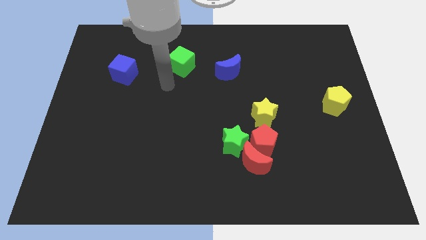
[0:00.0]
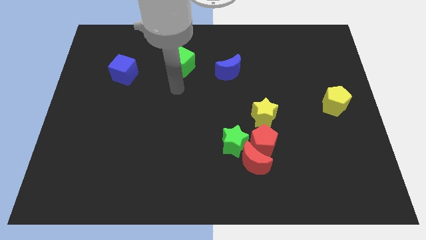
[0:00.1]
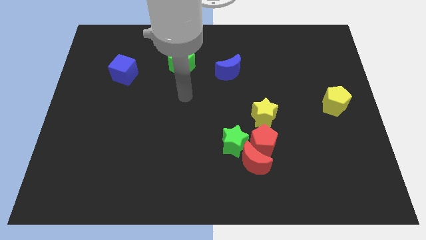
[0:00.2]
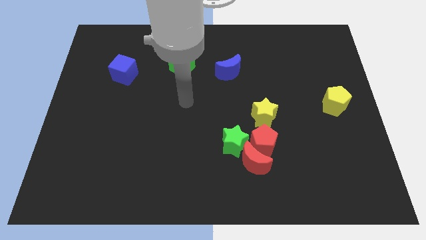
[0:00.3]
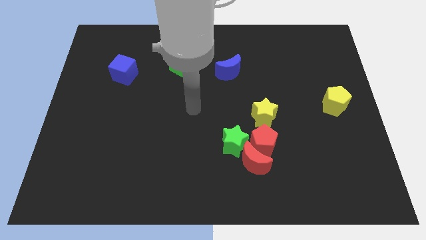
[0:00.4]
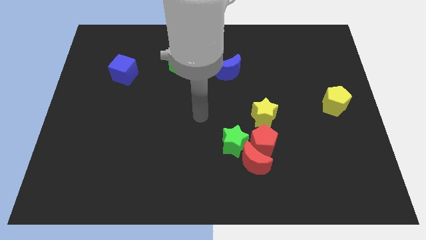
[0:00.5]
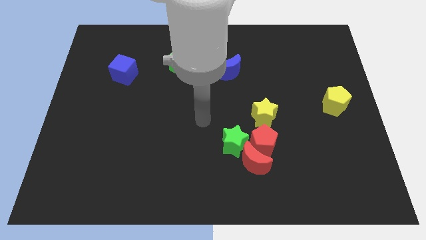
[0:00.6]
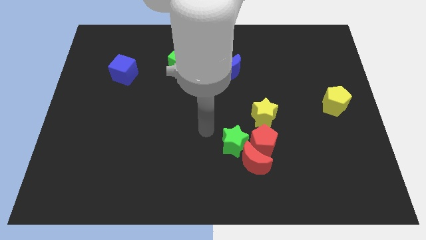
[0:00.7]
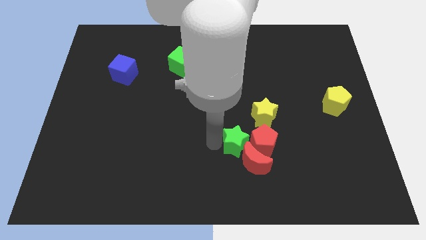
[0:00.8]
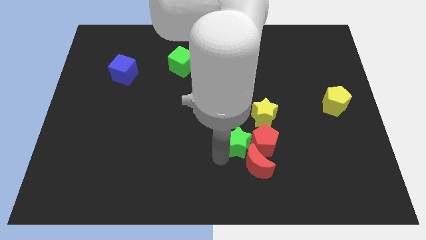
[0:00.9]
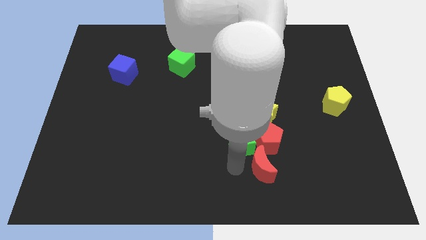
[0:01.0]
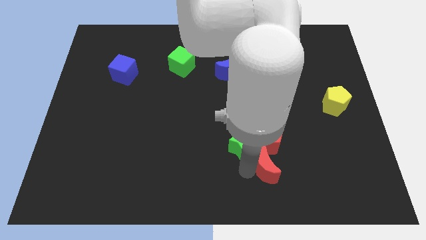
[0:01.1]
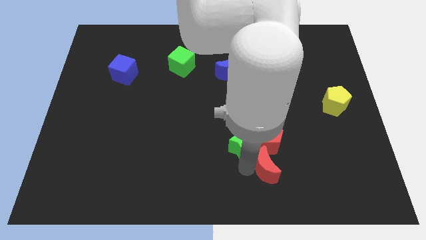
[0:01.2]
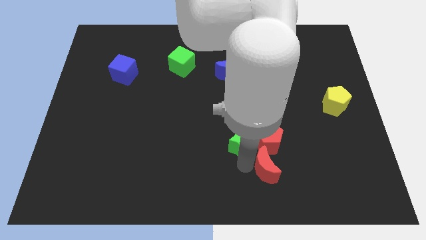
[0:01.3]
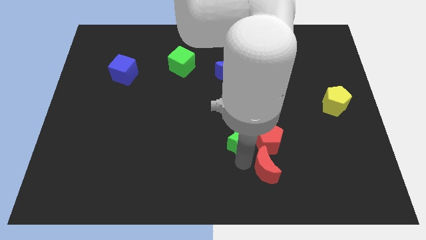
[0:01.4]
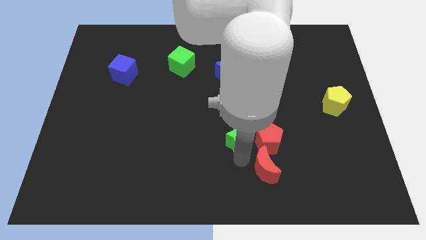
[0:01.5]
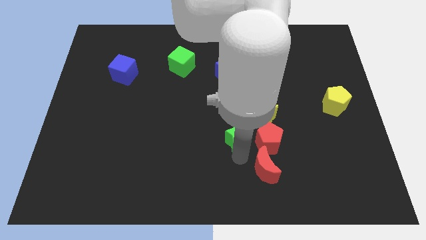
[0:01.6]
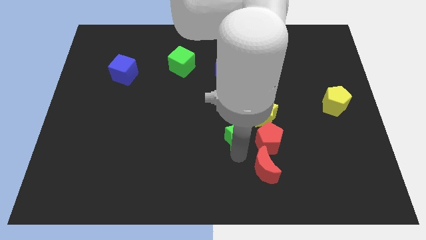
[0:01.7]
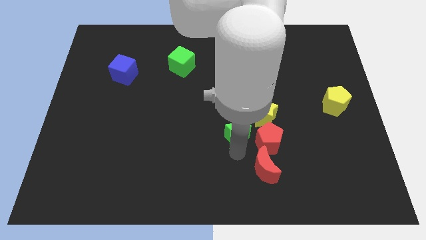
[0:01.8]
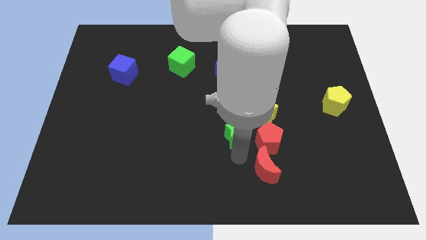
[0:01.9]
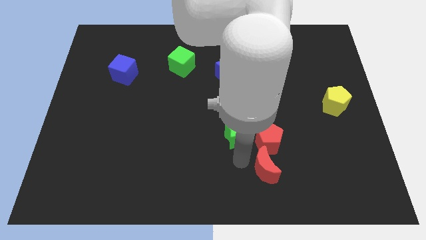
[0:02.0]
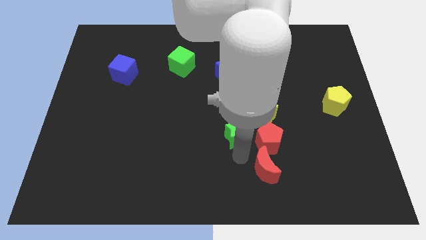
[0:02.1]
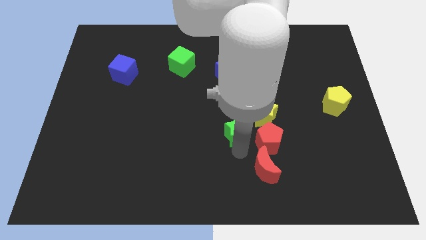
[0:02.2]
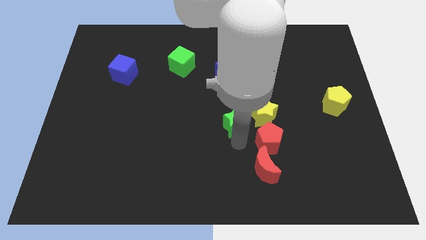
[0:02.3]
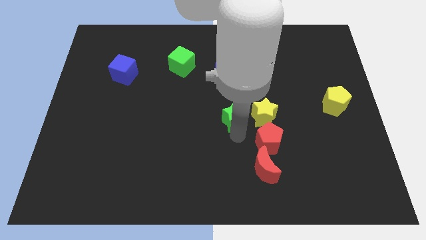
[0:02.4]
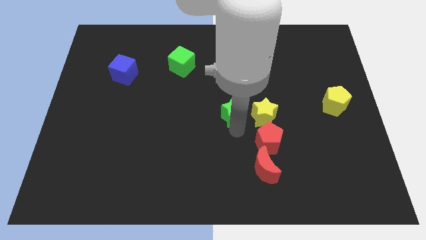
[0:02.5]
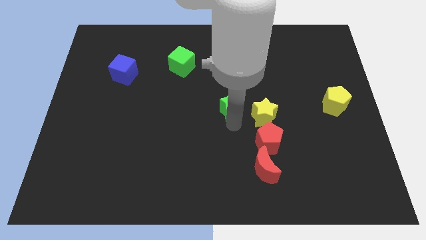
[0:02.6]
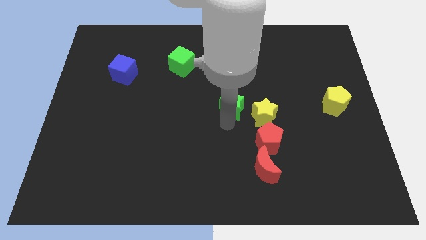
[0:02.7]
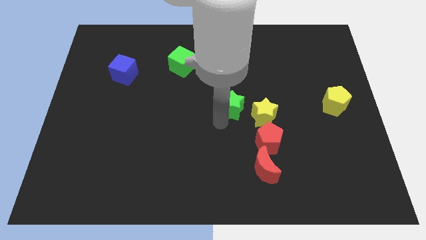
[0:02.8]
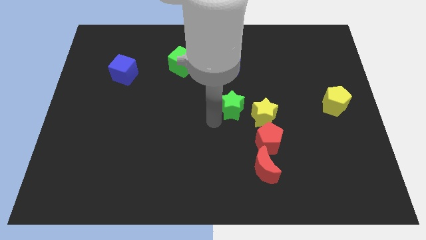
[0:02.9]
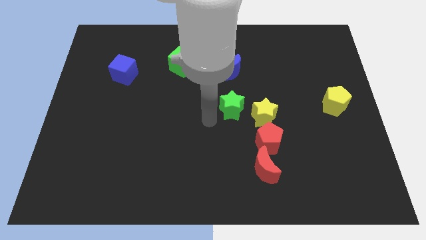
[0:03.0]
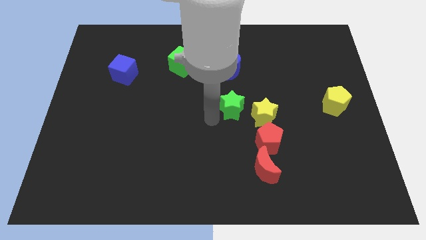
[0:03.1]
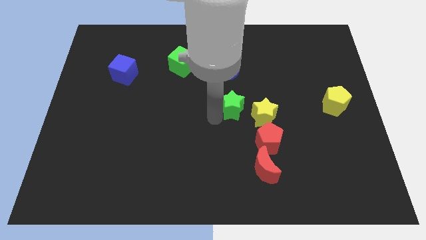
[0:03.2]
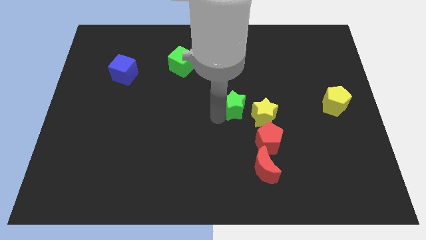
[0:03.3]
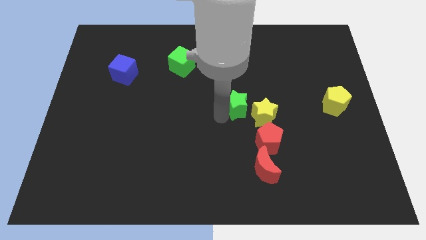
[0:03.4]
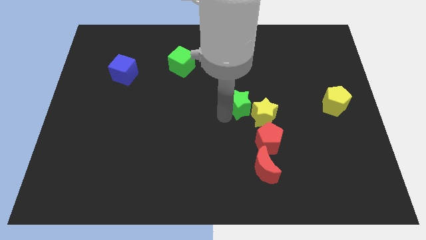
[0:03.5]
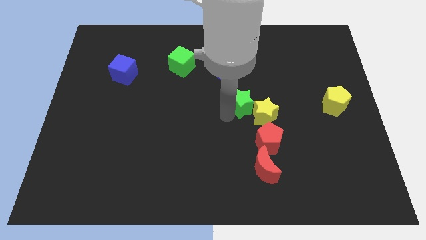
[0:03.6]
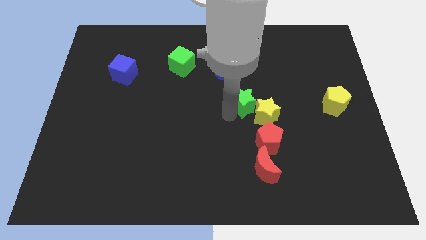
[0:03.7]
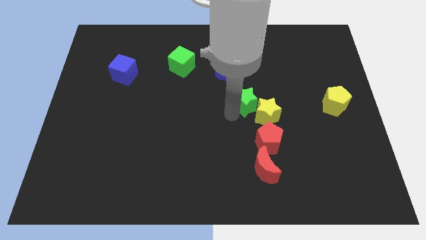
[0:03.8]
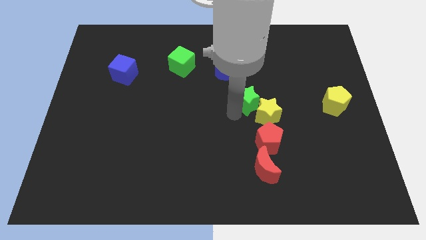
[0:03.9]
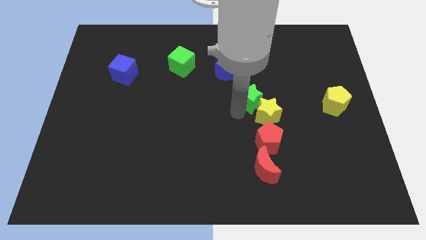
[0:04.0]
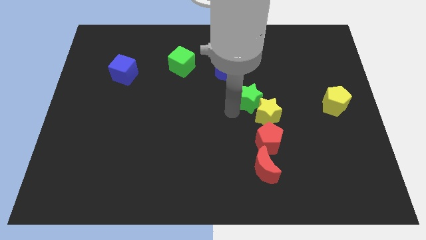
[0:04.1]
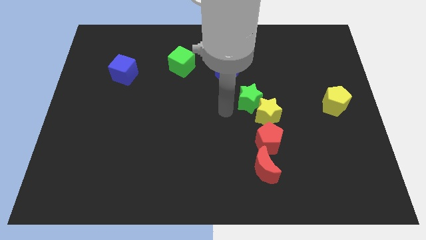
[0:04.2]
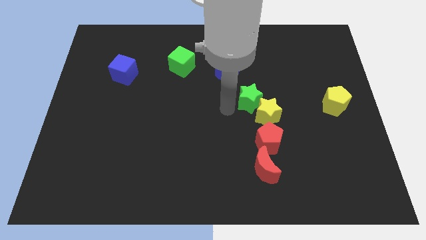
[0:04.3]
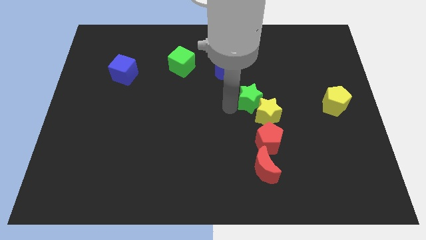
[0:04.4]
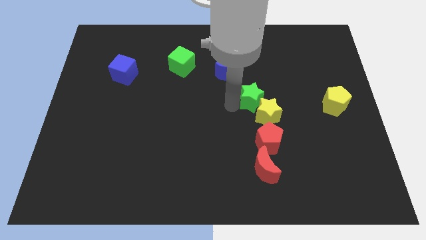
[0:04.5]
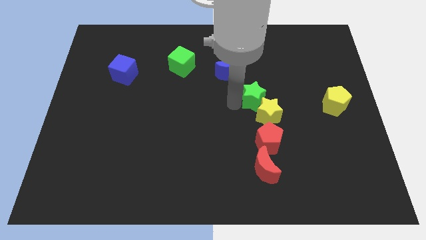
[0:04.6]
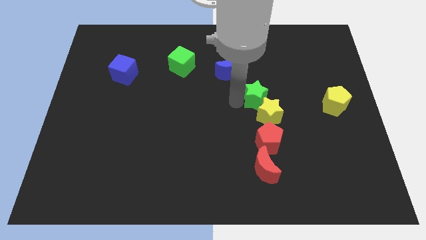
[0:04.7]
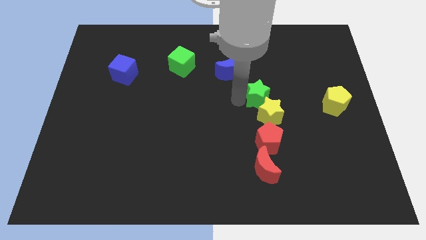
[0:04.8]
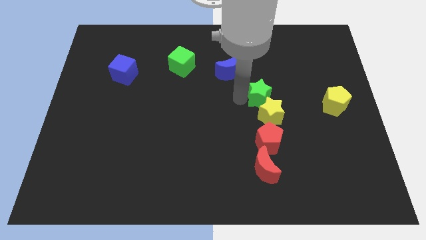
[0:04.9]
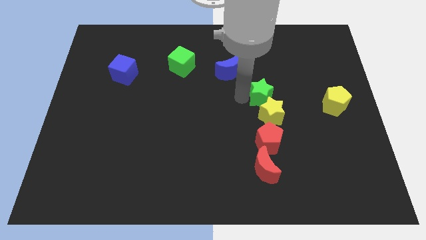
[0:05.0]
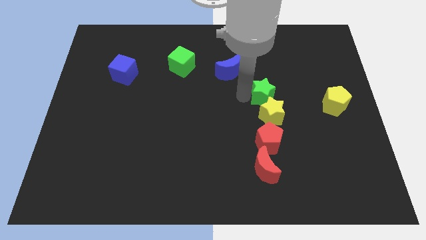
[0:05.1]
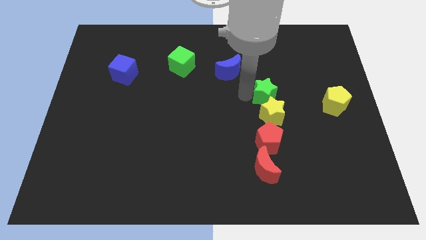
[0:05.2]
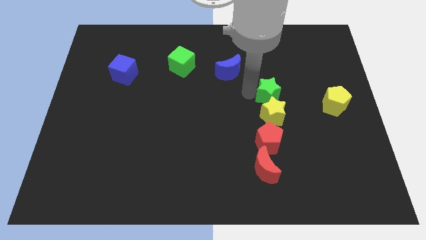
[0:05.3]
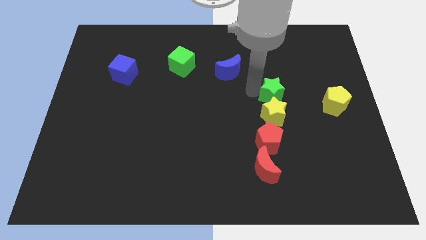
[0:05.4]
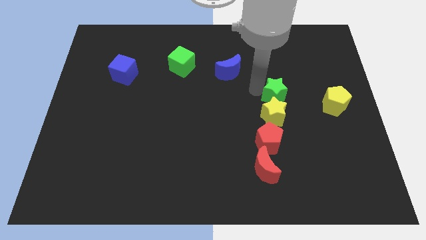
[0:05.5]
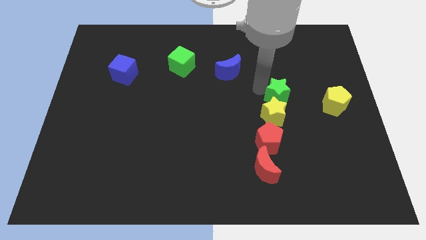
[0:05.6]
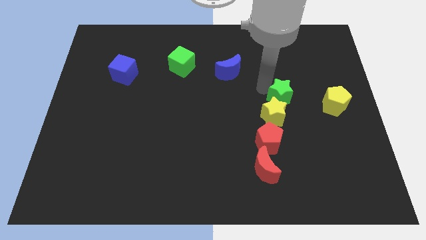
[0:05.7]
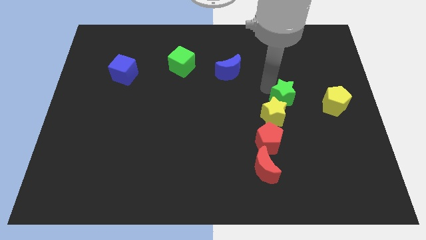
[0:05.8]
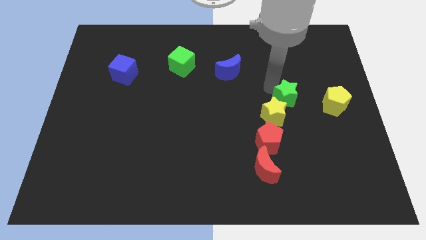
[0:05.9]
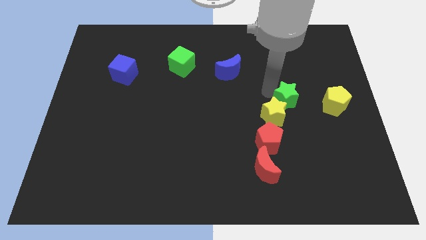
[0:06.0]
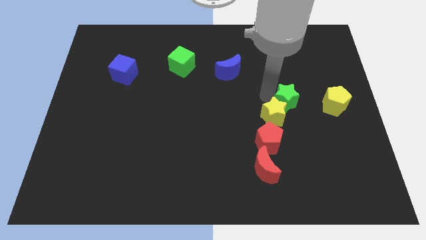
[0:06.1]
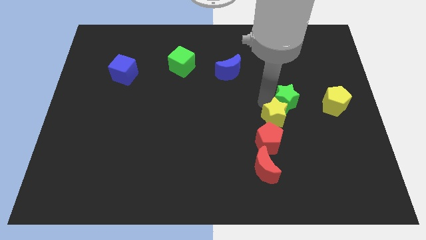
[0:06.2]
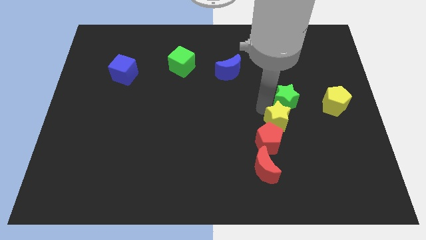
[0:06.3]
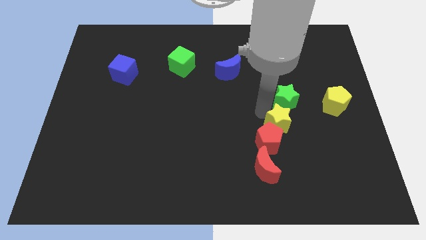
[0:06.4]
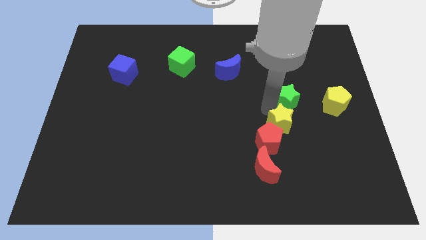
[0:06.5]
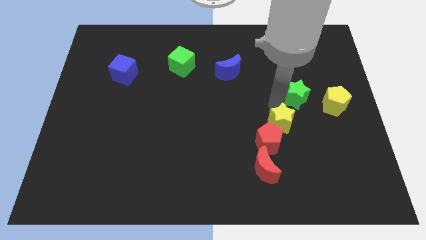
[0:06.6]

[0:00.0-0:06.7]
move the green star to the top left of the yellow pentagon
